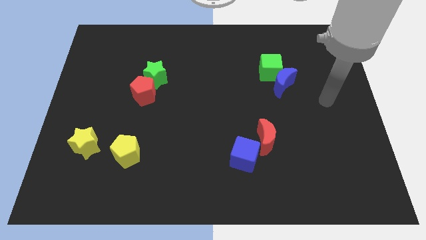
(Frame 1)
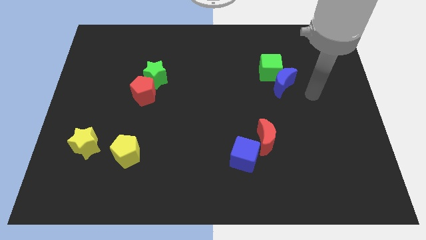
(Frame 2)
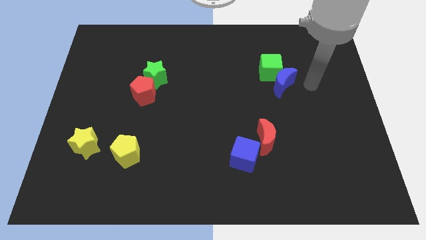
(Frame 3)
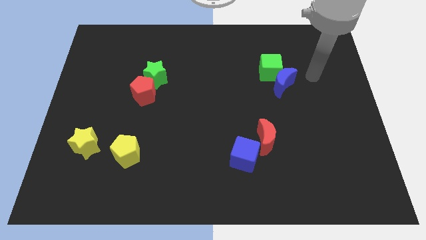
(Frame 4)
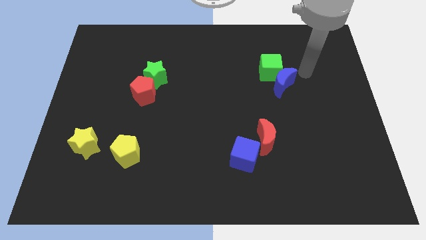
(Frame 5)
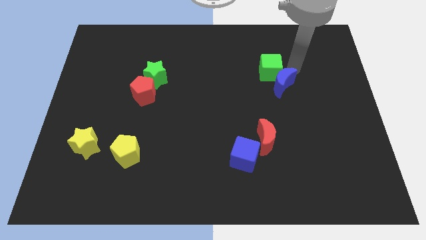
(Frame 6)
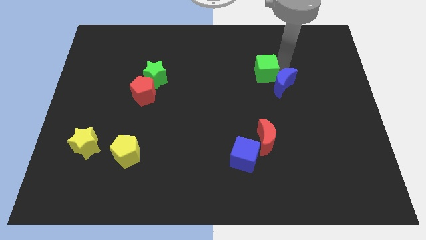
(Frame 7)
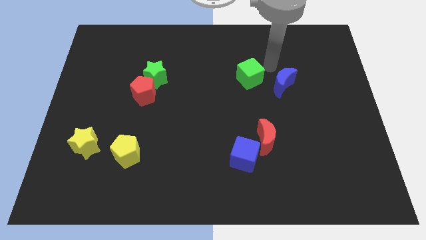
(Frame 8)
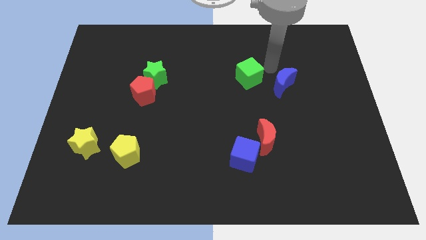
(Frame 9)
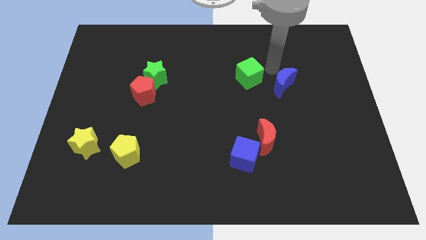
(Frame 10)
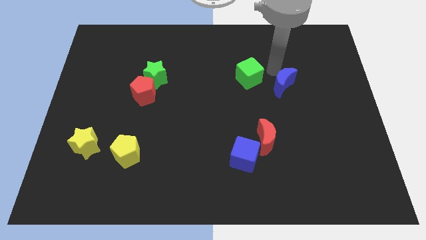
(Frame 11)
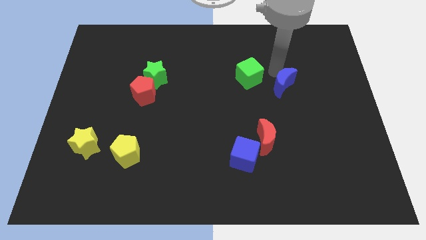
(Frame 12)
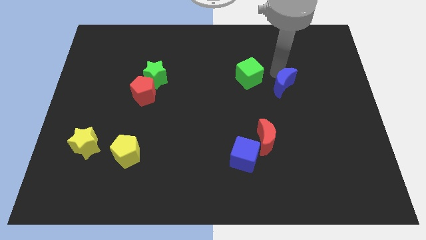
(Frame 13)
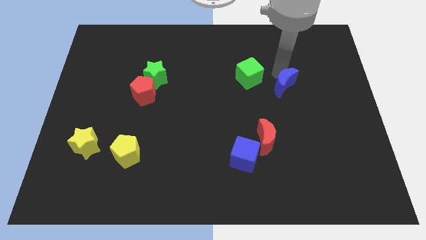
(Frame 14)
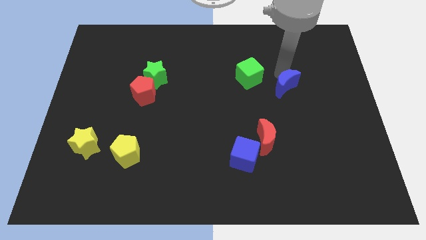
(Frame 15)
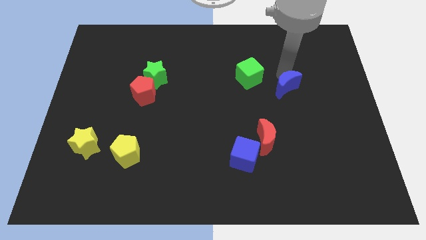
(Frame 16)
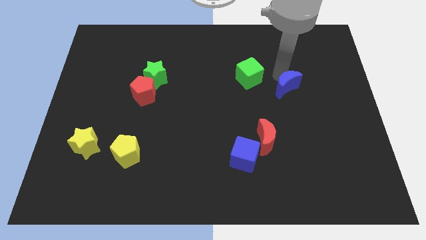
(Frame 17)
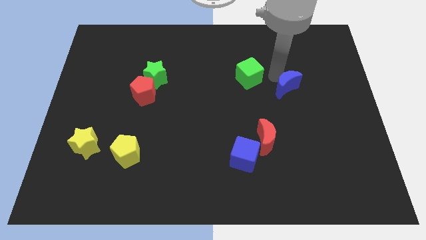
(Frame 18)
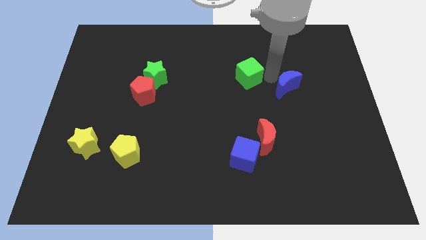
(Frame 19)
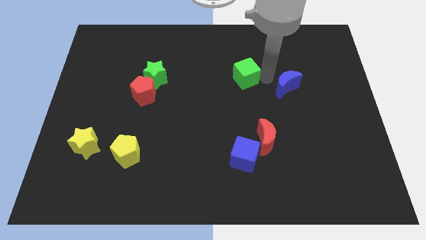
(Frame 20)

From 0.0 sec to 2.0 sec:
move the blue moon away from the green cube

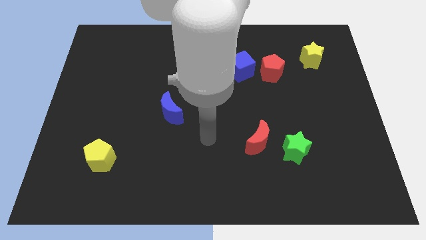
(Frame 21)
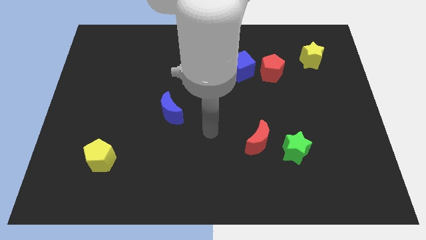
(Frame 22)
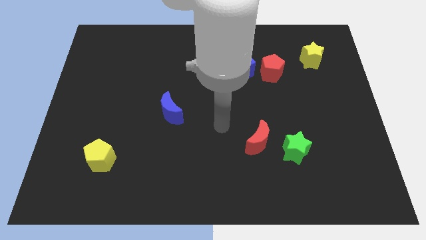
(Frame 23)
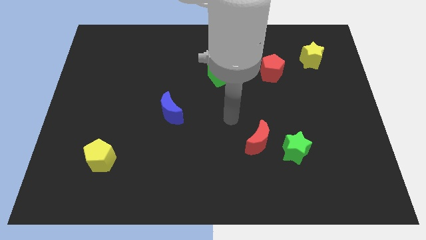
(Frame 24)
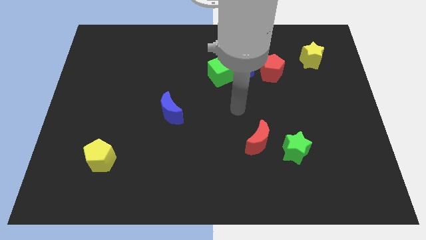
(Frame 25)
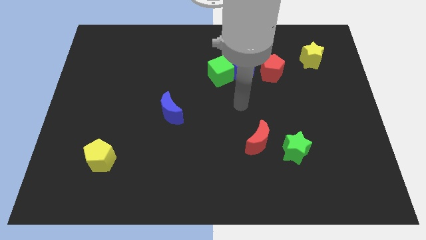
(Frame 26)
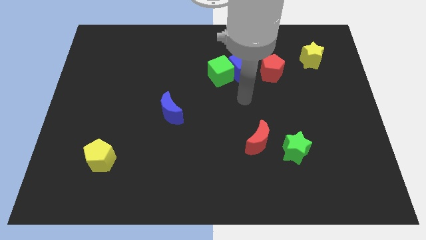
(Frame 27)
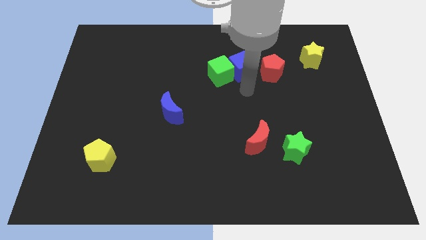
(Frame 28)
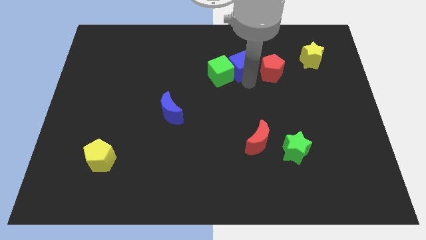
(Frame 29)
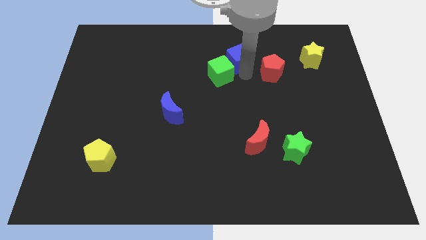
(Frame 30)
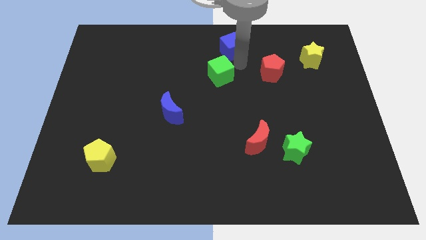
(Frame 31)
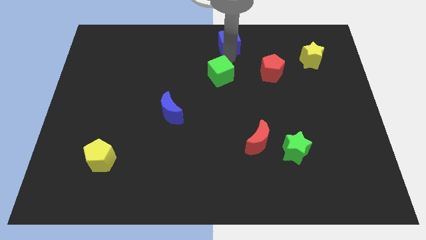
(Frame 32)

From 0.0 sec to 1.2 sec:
pull the green cube apart from the blue cube

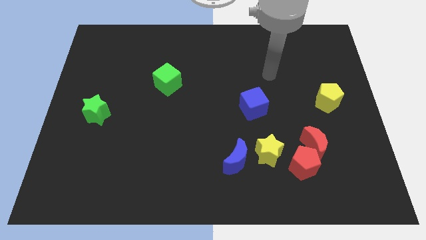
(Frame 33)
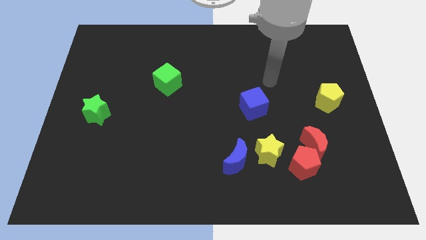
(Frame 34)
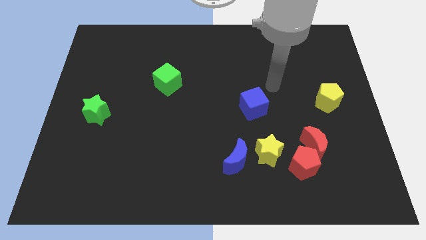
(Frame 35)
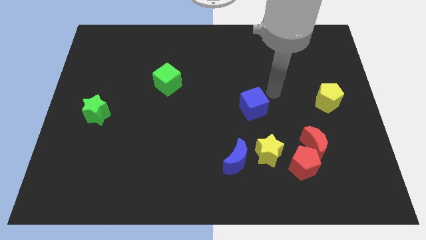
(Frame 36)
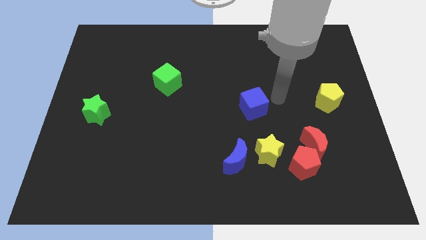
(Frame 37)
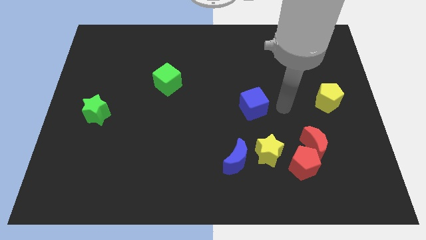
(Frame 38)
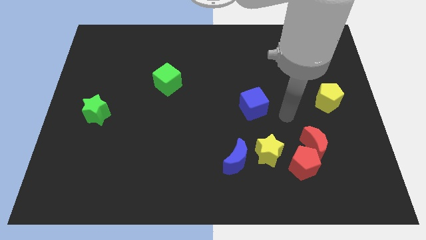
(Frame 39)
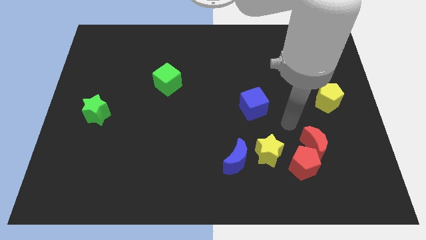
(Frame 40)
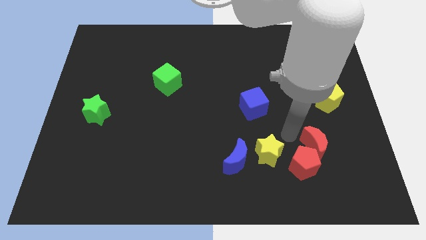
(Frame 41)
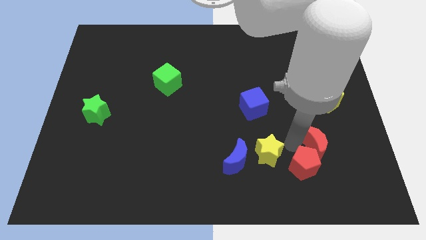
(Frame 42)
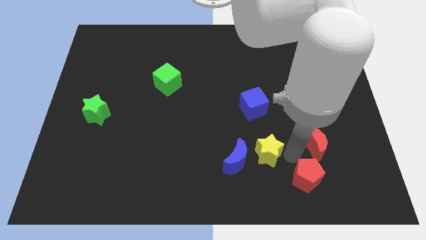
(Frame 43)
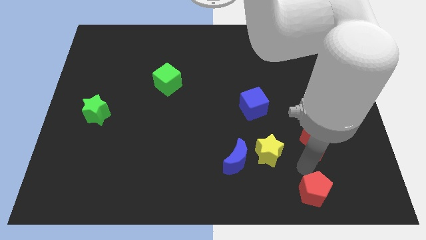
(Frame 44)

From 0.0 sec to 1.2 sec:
pull the red moon apart from the red pentagon

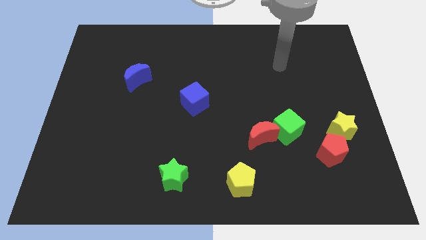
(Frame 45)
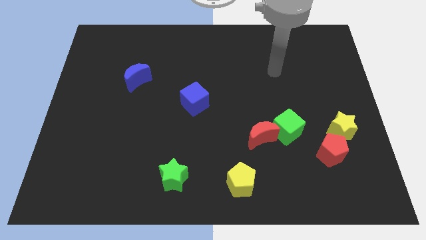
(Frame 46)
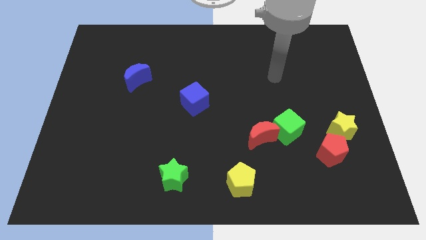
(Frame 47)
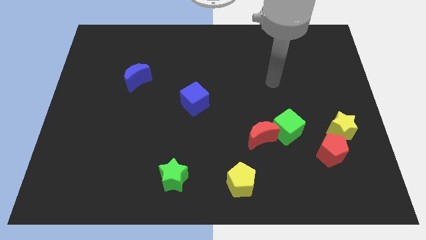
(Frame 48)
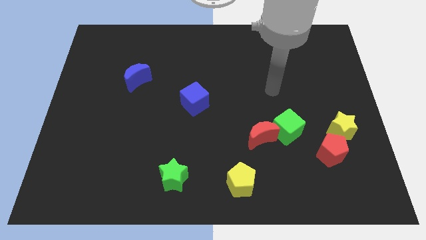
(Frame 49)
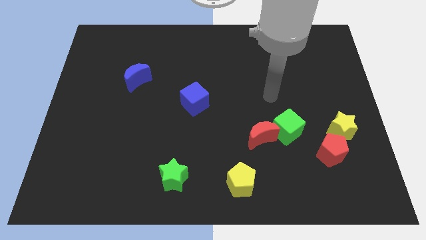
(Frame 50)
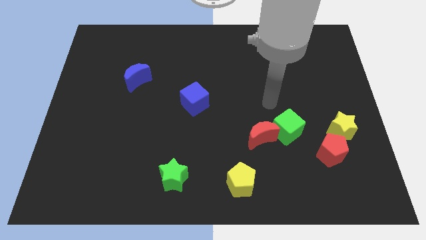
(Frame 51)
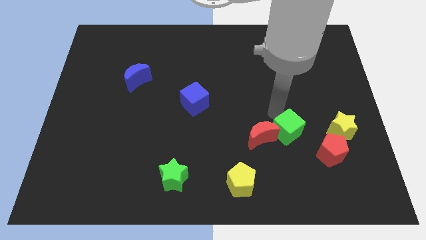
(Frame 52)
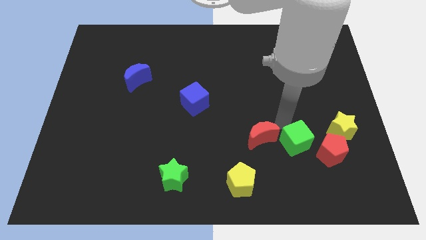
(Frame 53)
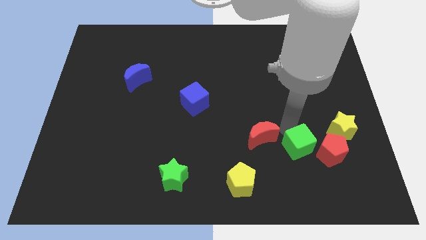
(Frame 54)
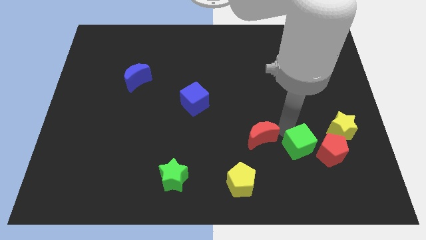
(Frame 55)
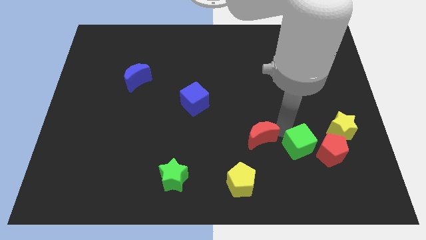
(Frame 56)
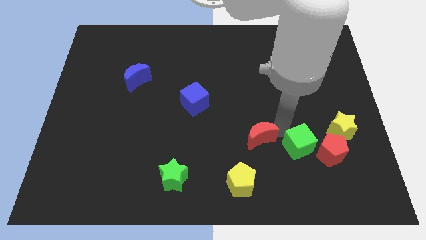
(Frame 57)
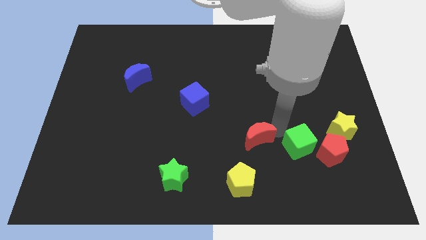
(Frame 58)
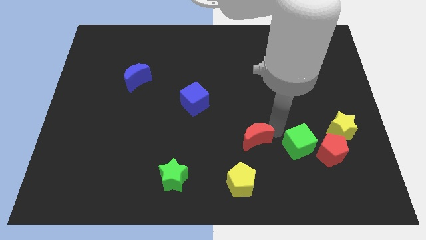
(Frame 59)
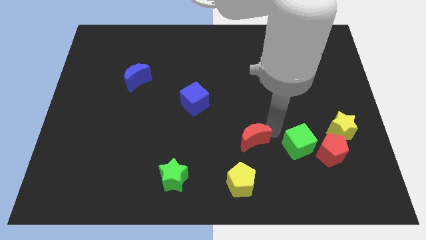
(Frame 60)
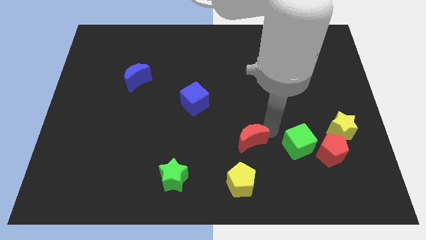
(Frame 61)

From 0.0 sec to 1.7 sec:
move the red moon away from the green cube

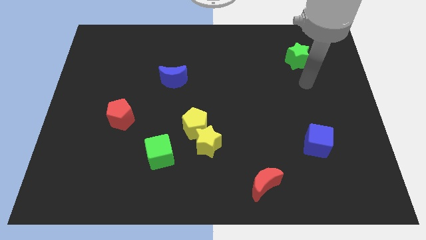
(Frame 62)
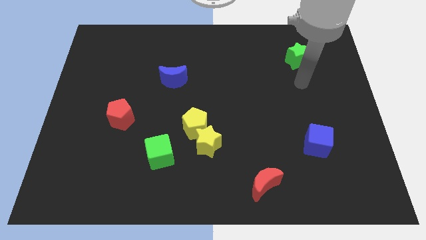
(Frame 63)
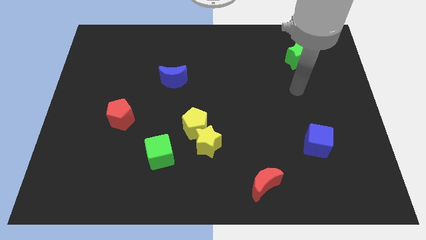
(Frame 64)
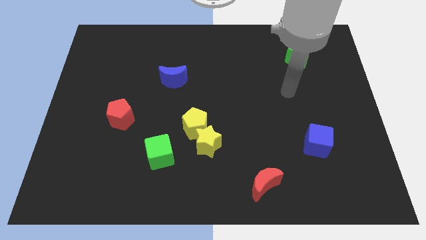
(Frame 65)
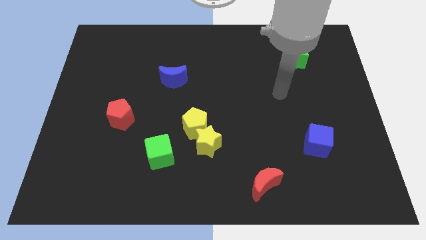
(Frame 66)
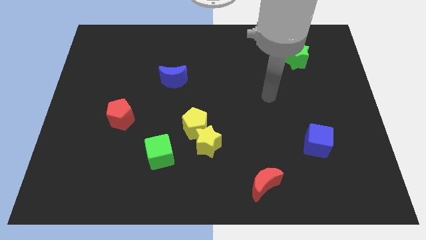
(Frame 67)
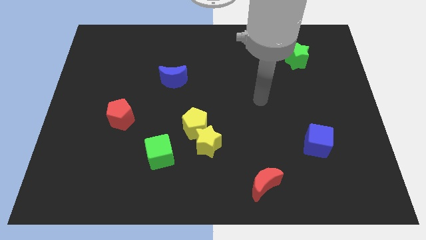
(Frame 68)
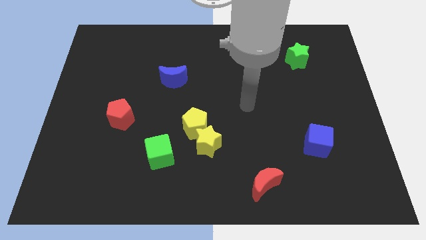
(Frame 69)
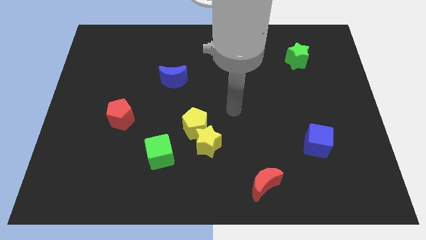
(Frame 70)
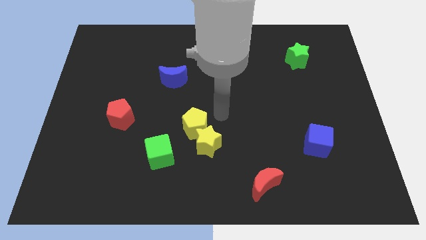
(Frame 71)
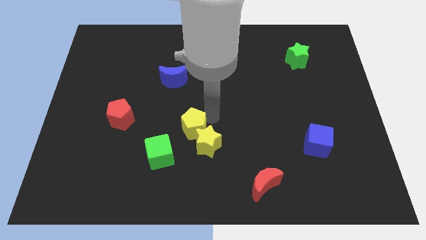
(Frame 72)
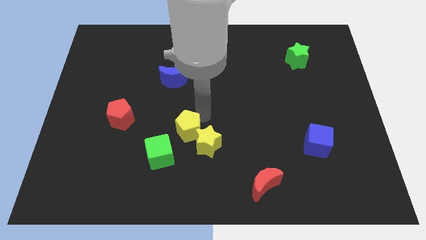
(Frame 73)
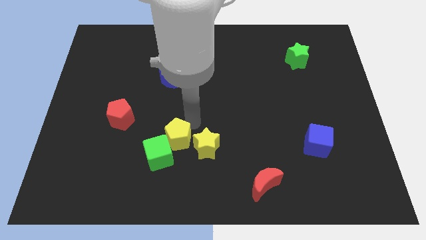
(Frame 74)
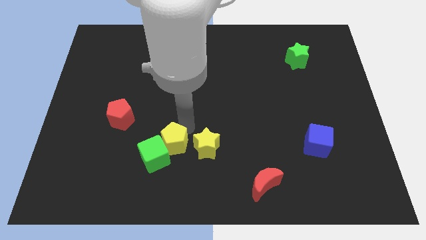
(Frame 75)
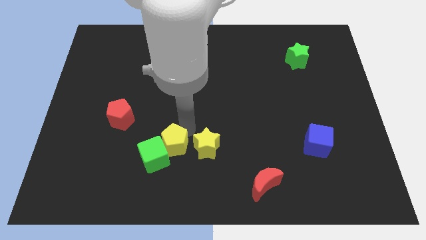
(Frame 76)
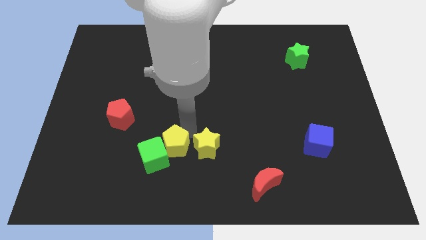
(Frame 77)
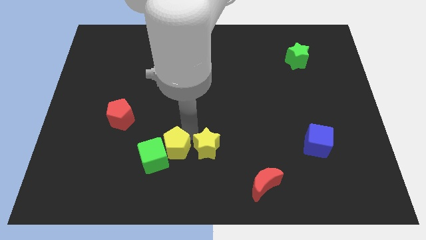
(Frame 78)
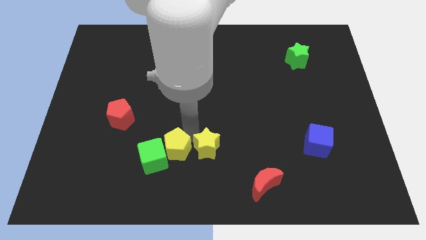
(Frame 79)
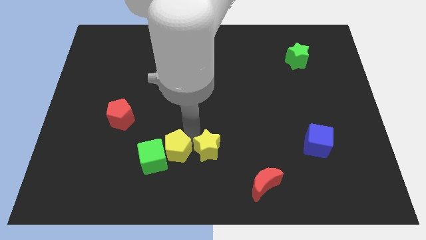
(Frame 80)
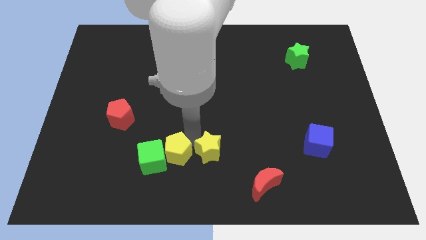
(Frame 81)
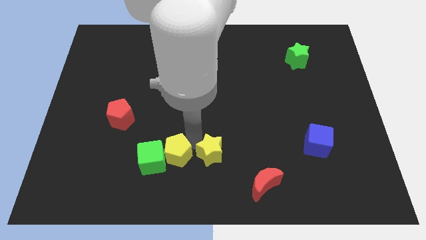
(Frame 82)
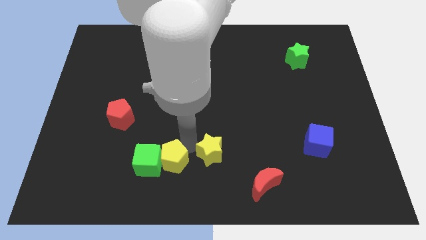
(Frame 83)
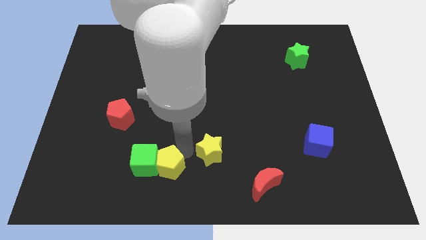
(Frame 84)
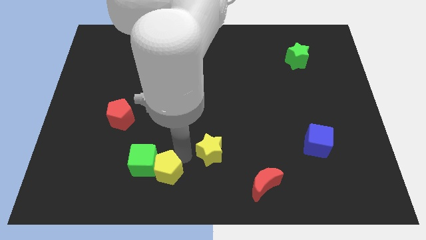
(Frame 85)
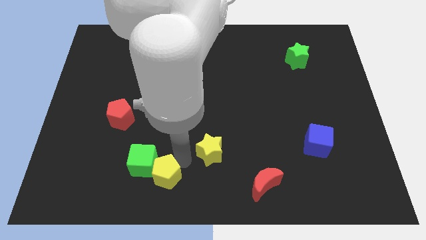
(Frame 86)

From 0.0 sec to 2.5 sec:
pull the yellow star apart from the yellow pentagon

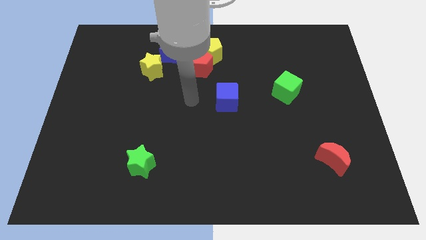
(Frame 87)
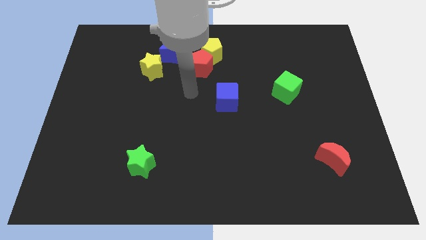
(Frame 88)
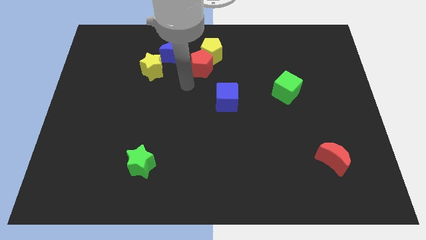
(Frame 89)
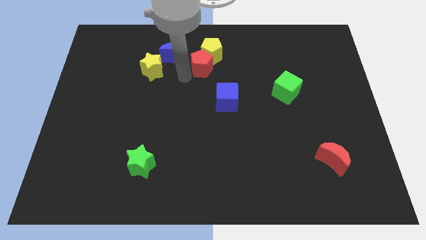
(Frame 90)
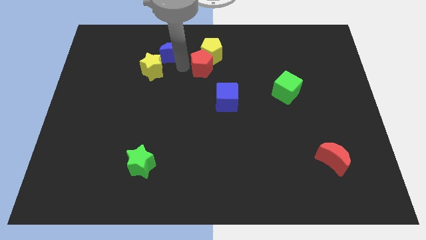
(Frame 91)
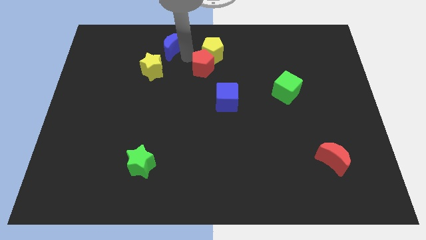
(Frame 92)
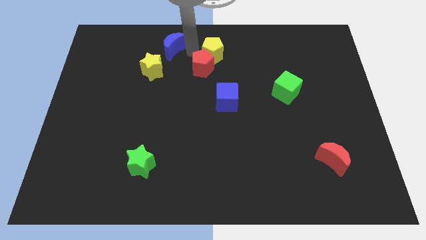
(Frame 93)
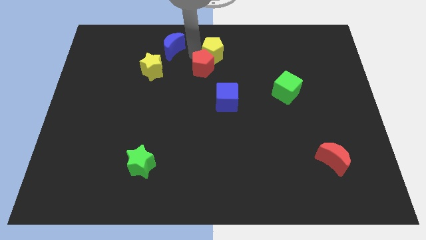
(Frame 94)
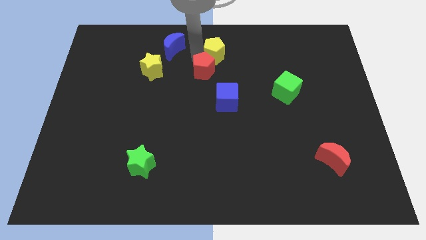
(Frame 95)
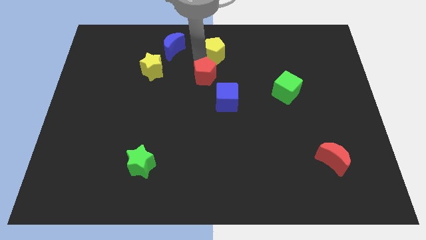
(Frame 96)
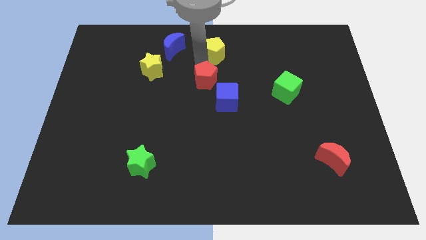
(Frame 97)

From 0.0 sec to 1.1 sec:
separate the red pentagon from the yellow pentagon and blue moon
